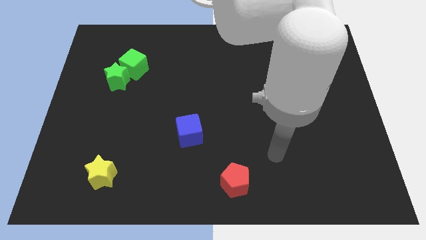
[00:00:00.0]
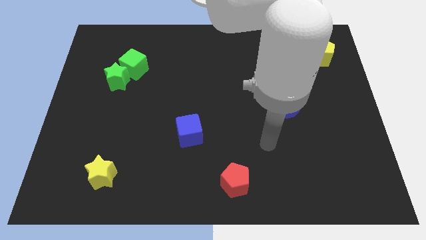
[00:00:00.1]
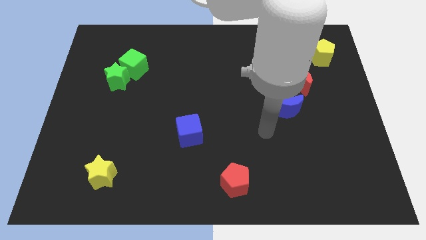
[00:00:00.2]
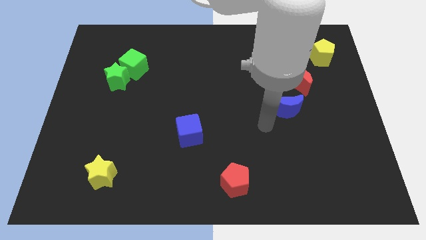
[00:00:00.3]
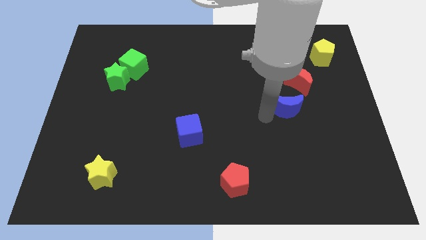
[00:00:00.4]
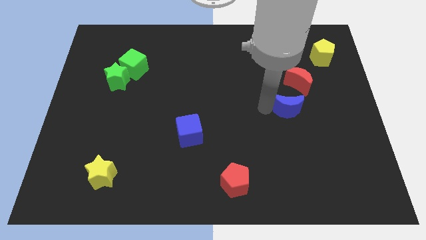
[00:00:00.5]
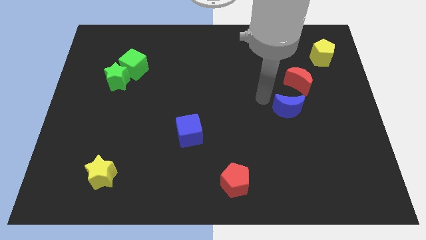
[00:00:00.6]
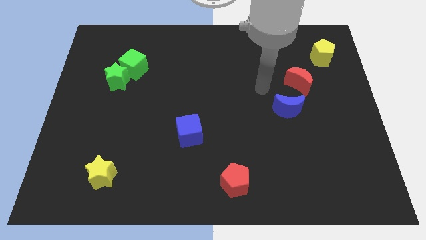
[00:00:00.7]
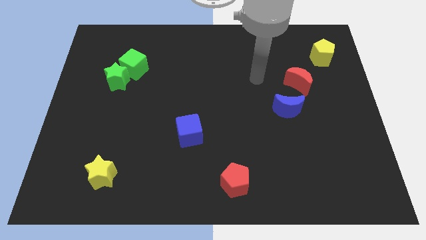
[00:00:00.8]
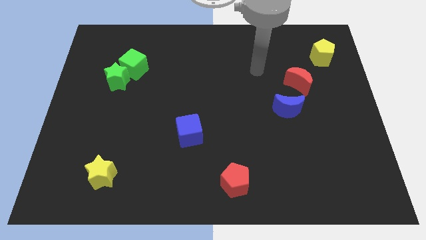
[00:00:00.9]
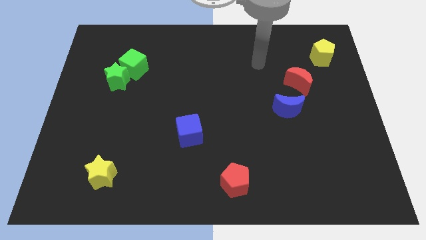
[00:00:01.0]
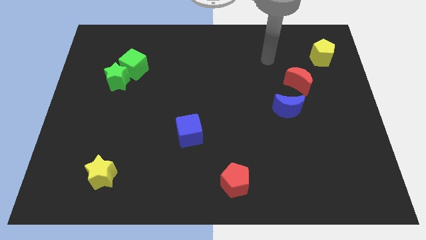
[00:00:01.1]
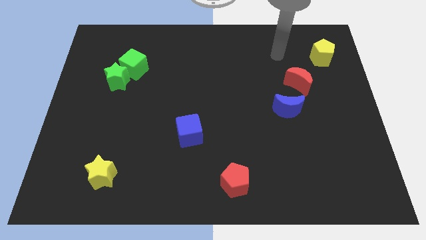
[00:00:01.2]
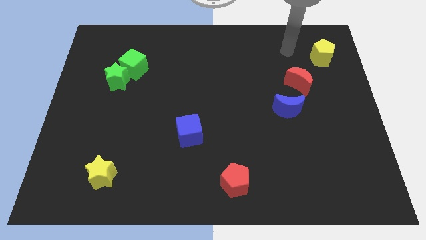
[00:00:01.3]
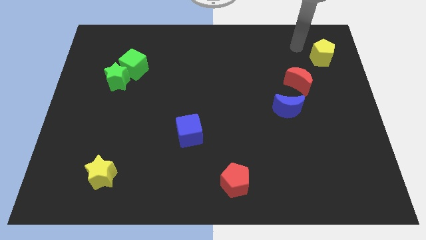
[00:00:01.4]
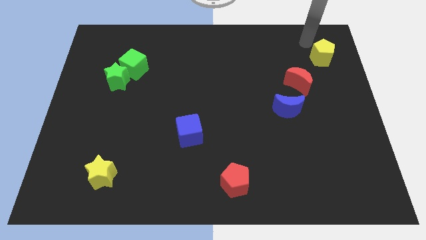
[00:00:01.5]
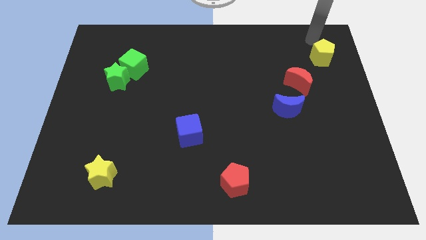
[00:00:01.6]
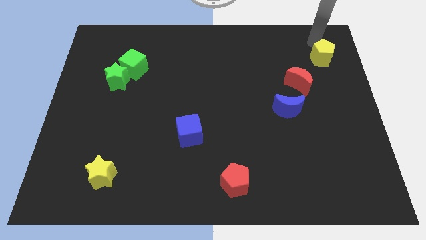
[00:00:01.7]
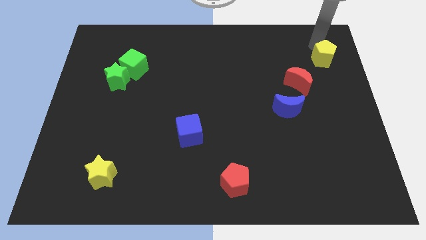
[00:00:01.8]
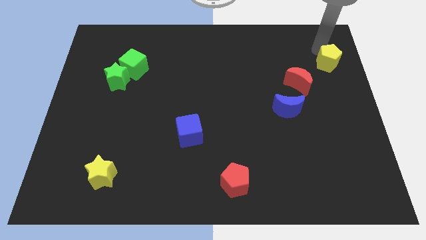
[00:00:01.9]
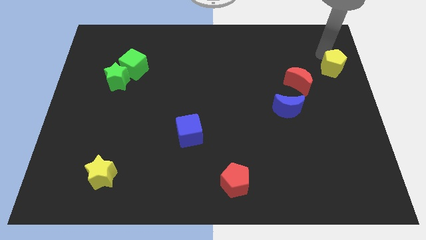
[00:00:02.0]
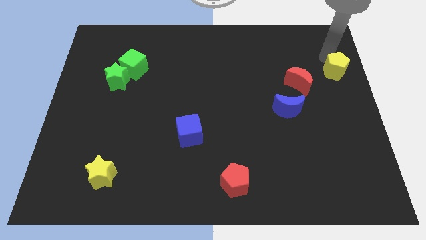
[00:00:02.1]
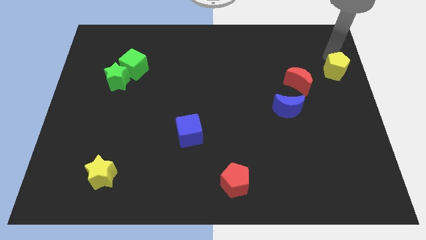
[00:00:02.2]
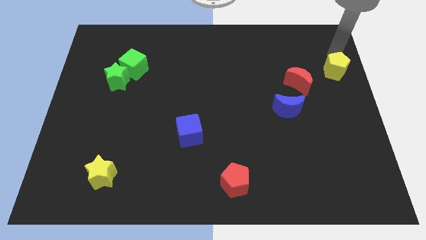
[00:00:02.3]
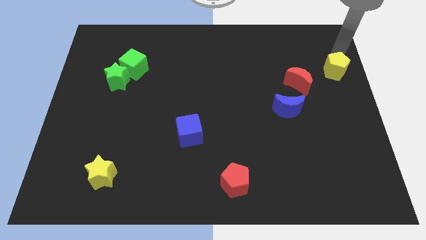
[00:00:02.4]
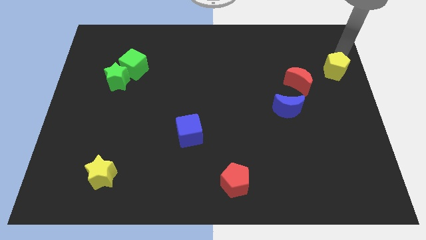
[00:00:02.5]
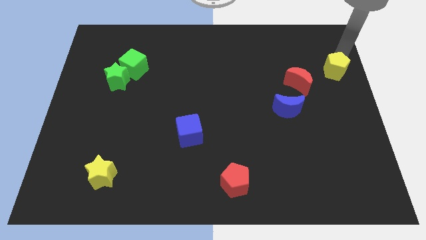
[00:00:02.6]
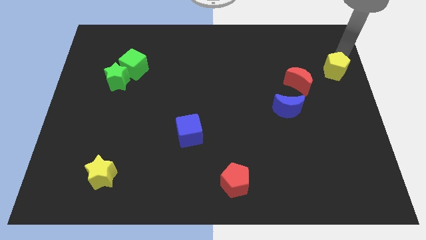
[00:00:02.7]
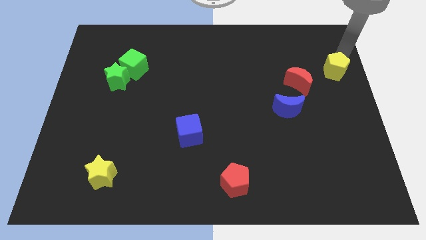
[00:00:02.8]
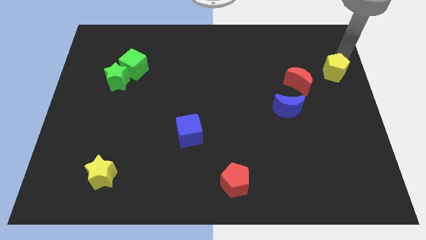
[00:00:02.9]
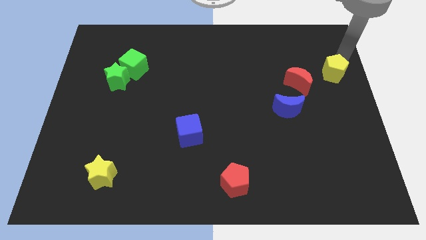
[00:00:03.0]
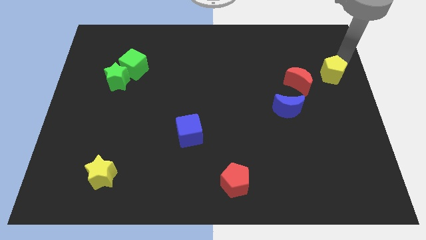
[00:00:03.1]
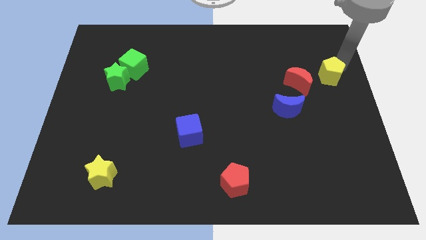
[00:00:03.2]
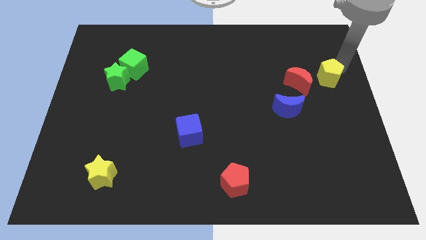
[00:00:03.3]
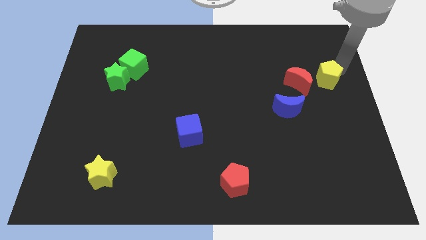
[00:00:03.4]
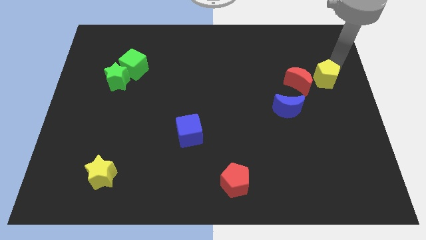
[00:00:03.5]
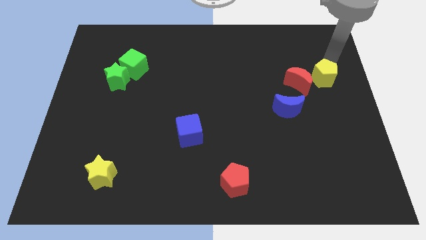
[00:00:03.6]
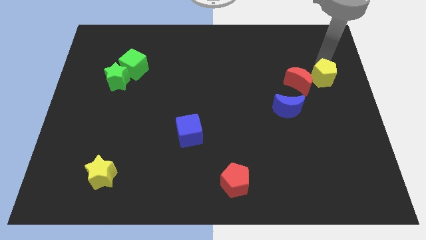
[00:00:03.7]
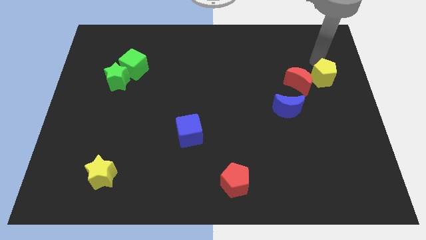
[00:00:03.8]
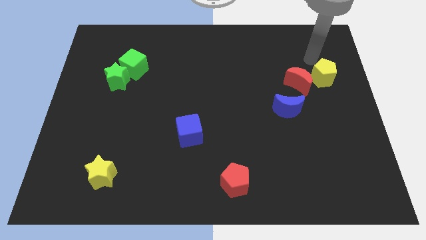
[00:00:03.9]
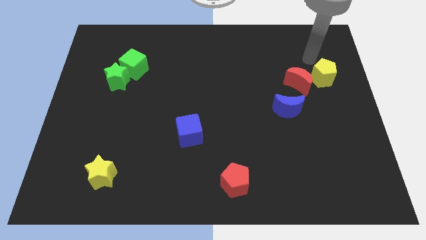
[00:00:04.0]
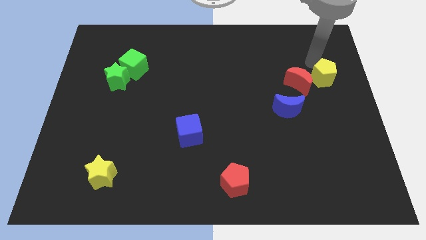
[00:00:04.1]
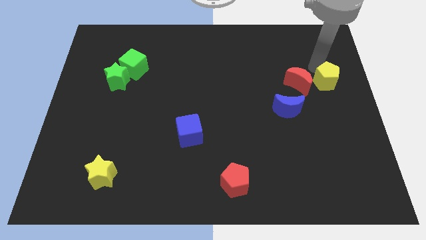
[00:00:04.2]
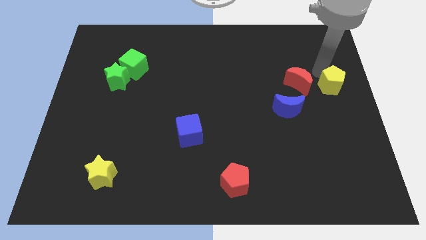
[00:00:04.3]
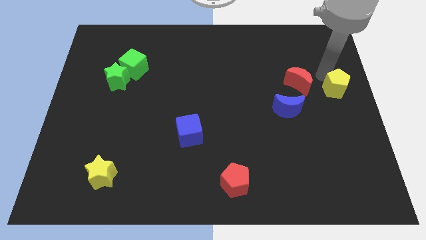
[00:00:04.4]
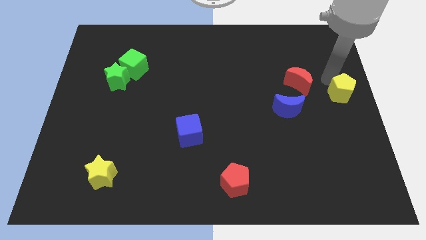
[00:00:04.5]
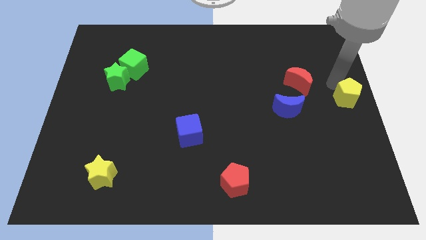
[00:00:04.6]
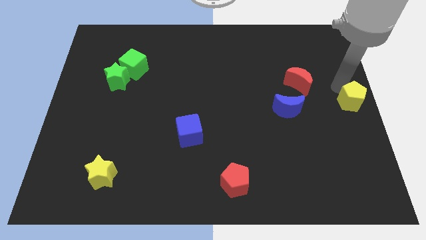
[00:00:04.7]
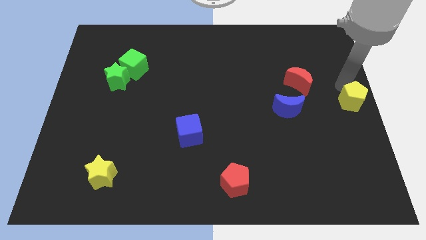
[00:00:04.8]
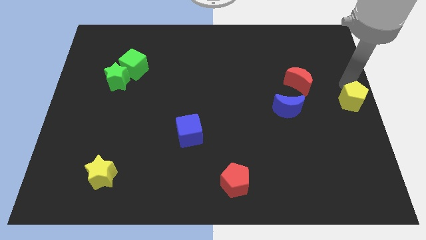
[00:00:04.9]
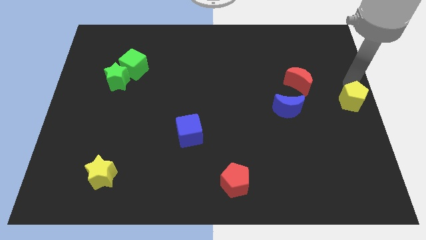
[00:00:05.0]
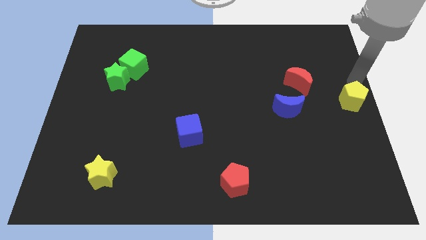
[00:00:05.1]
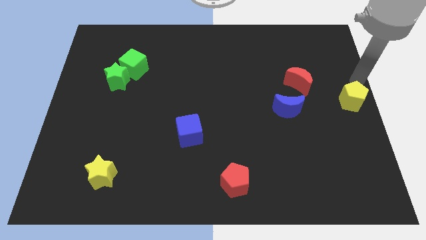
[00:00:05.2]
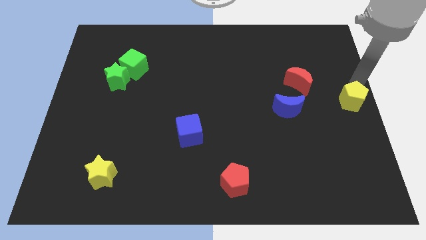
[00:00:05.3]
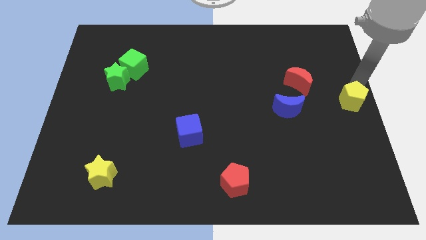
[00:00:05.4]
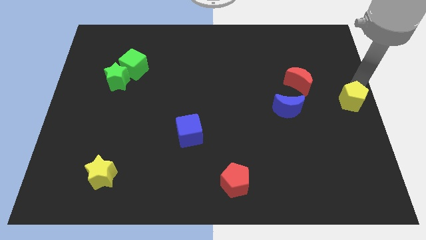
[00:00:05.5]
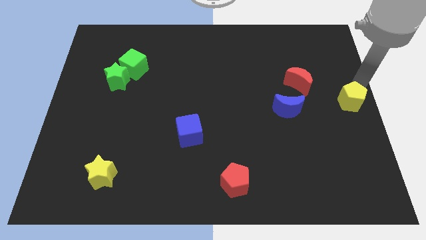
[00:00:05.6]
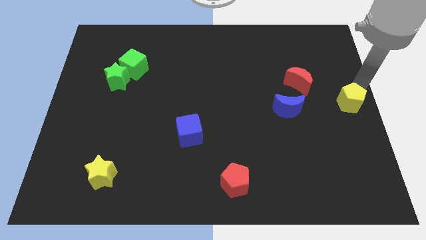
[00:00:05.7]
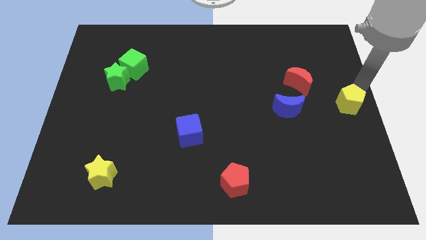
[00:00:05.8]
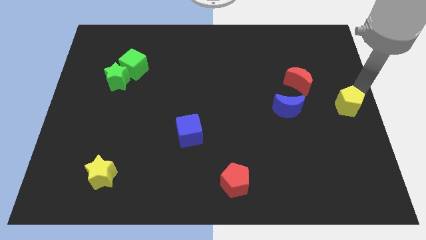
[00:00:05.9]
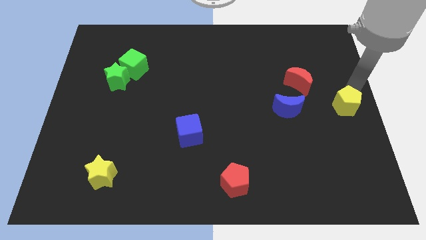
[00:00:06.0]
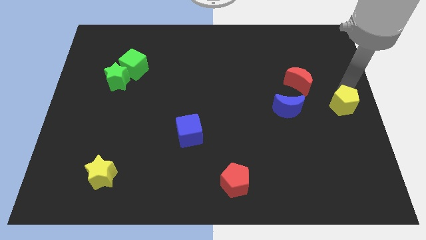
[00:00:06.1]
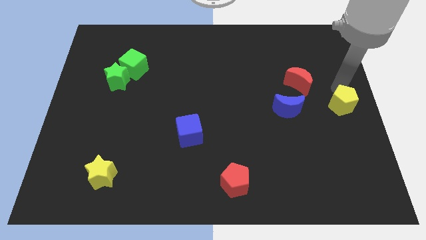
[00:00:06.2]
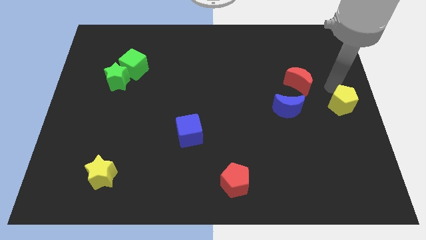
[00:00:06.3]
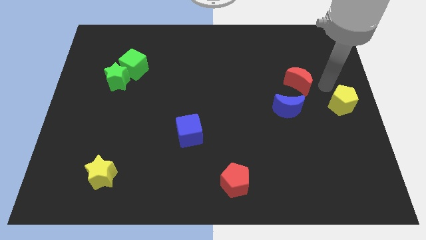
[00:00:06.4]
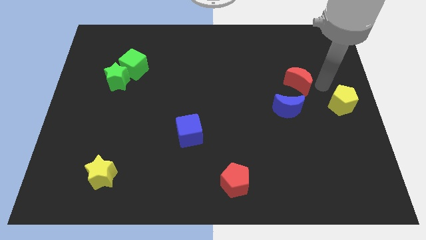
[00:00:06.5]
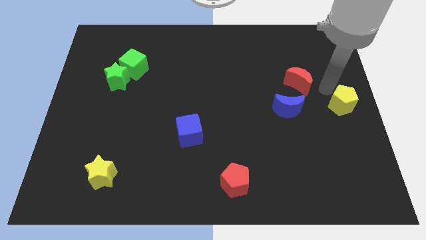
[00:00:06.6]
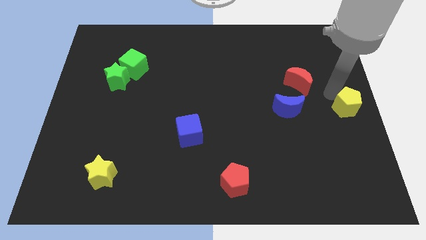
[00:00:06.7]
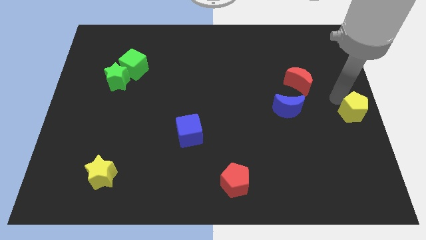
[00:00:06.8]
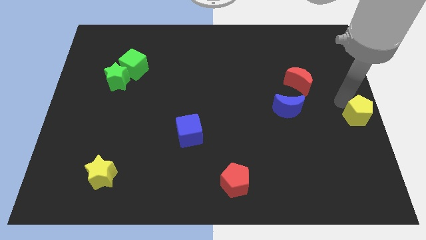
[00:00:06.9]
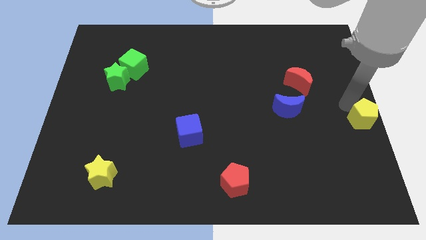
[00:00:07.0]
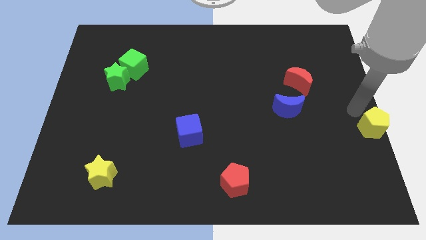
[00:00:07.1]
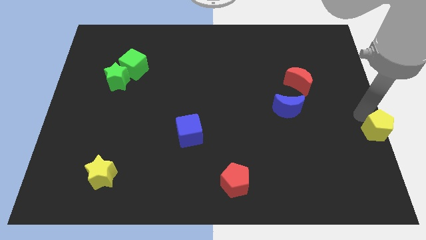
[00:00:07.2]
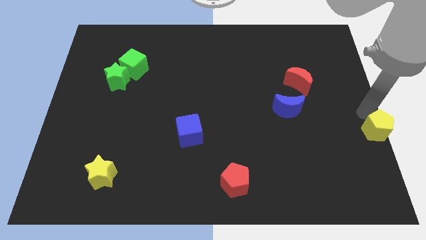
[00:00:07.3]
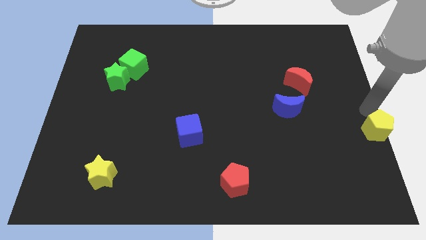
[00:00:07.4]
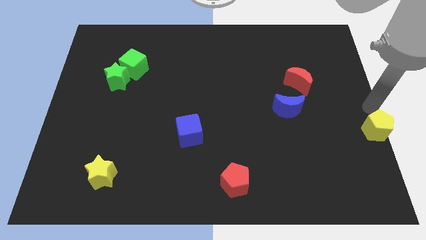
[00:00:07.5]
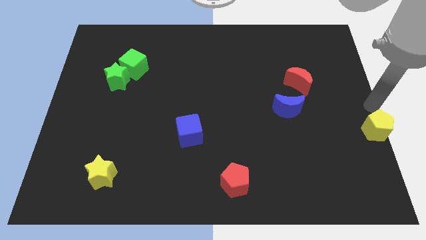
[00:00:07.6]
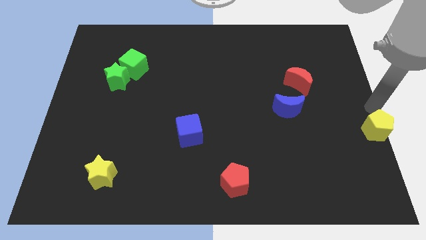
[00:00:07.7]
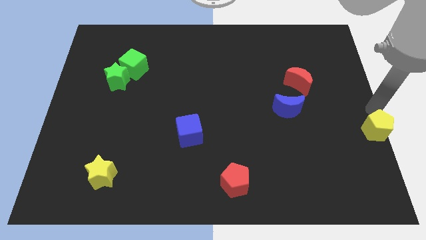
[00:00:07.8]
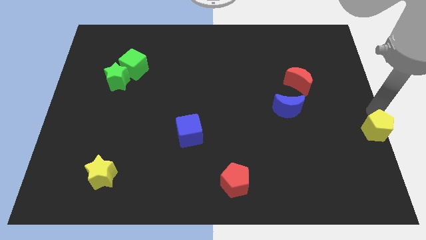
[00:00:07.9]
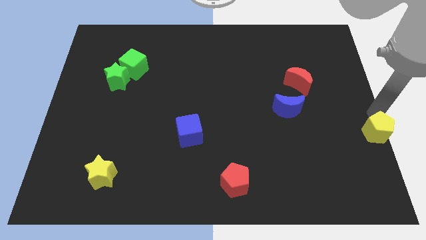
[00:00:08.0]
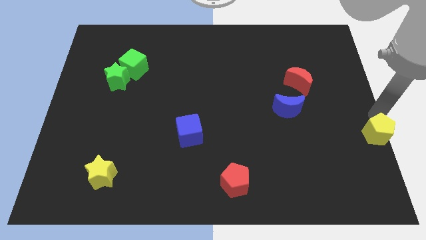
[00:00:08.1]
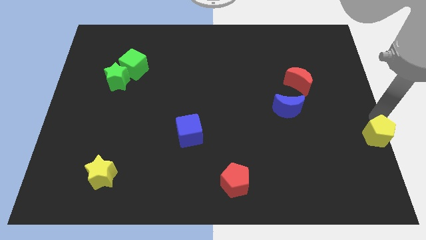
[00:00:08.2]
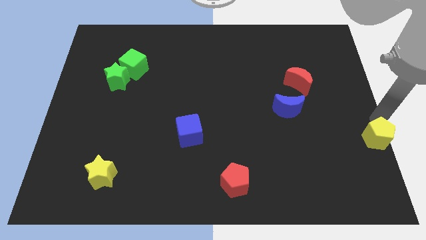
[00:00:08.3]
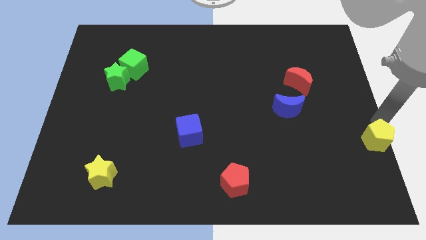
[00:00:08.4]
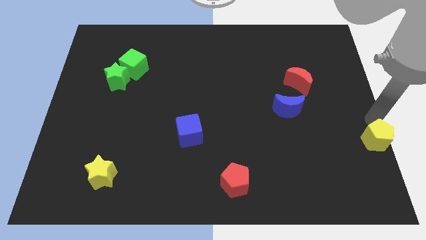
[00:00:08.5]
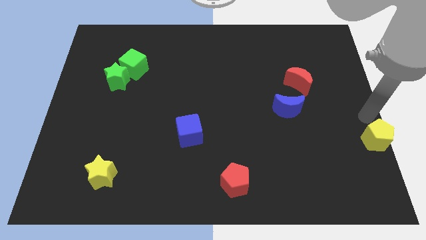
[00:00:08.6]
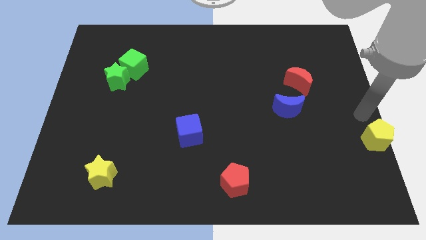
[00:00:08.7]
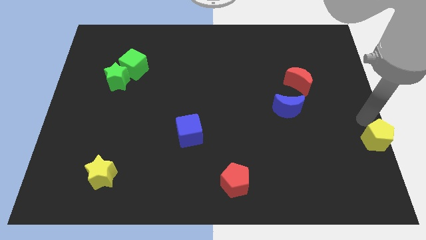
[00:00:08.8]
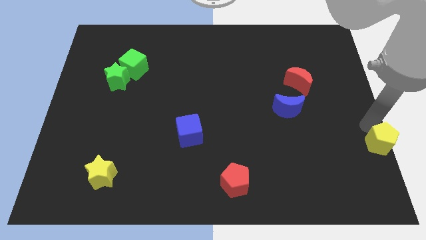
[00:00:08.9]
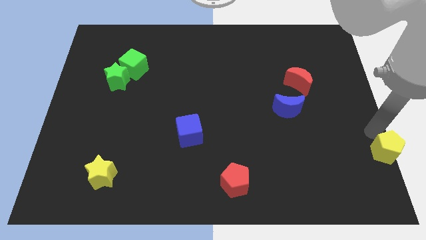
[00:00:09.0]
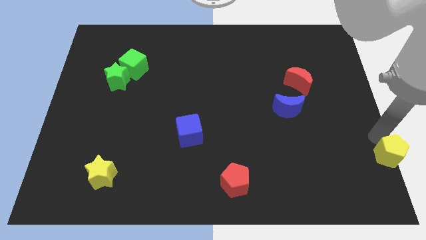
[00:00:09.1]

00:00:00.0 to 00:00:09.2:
move the yellow pentagon to the bottom right corner
